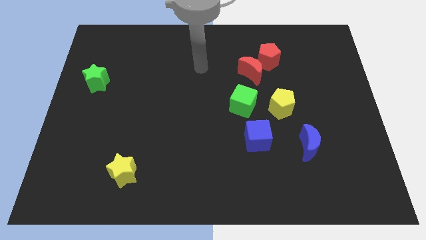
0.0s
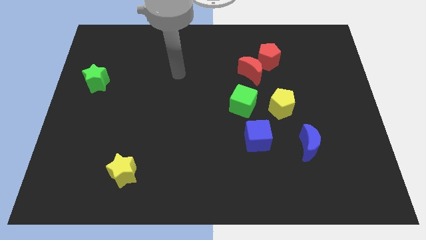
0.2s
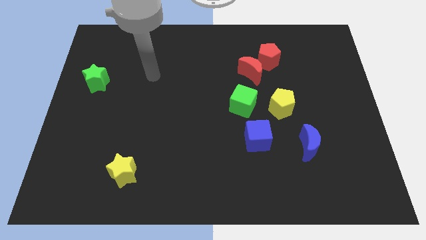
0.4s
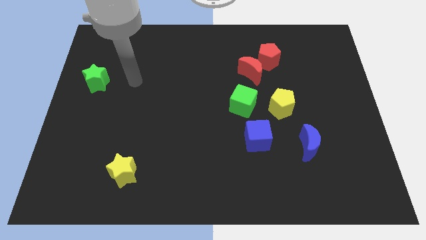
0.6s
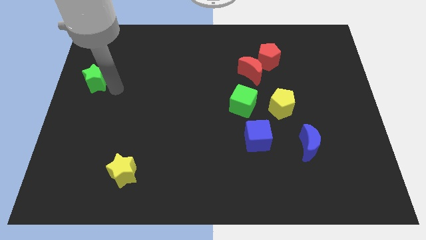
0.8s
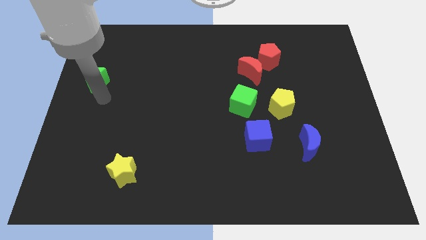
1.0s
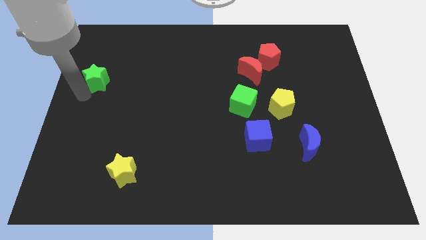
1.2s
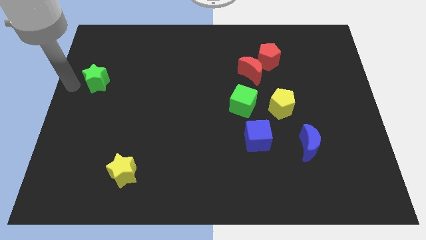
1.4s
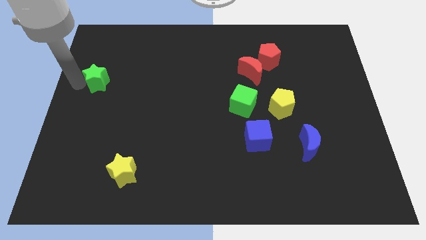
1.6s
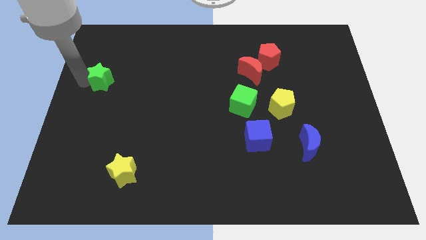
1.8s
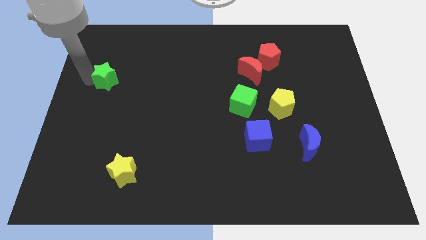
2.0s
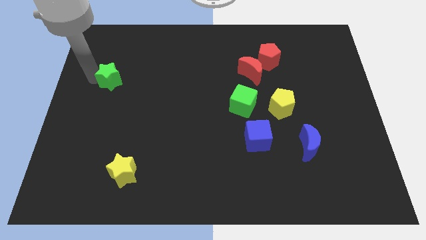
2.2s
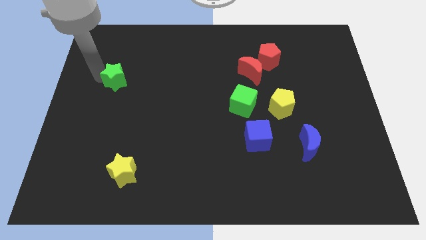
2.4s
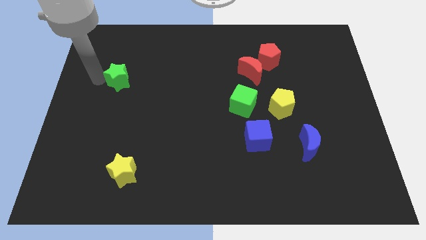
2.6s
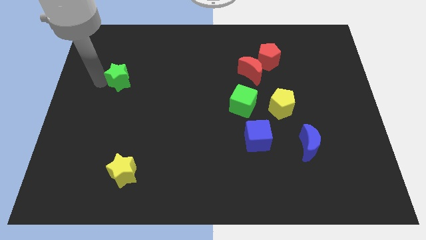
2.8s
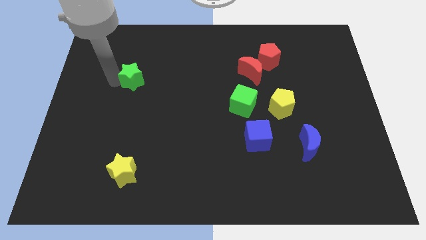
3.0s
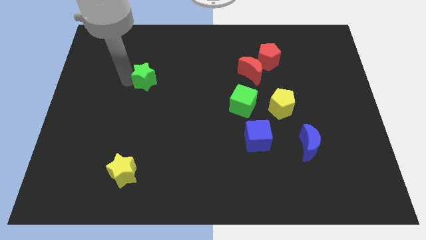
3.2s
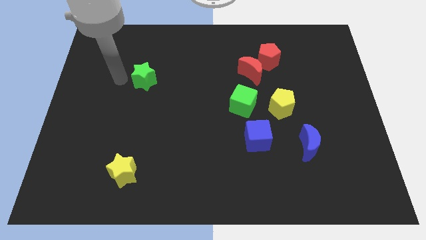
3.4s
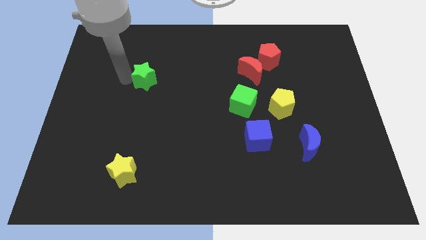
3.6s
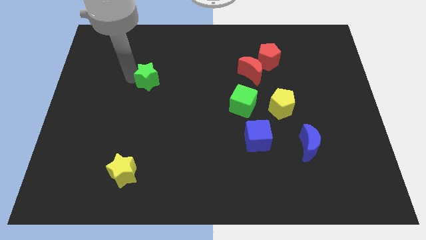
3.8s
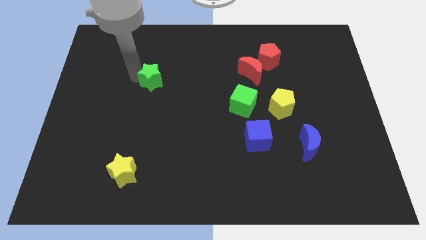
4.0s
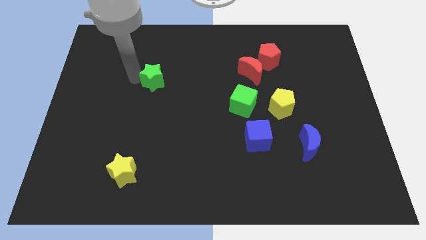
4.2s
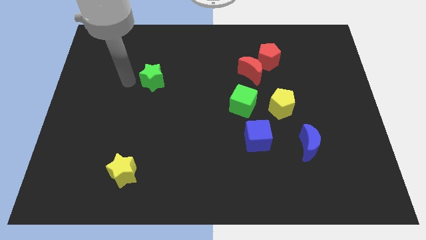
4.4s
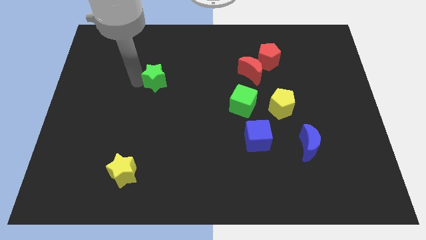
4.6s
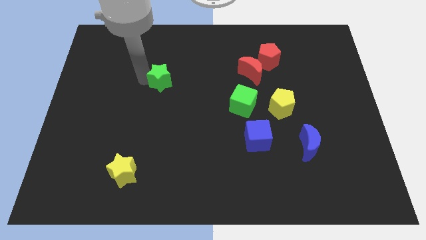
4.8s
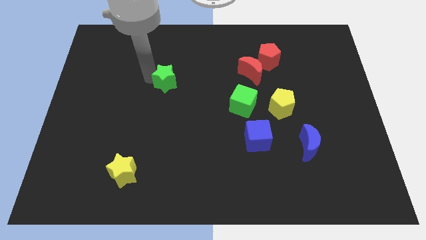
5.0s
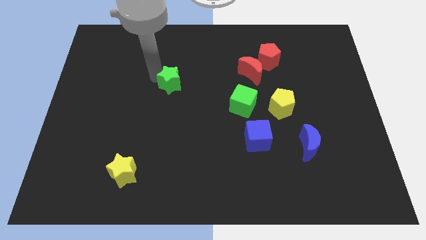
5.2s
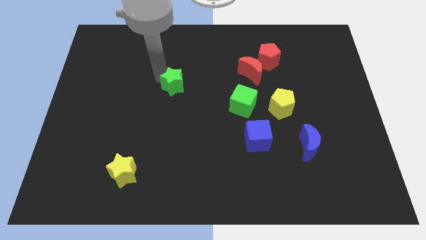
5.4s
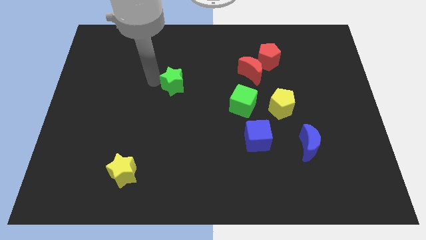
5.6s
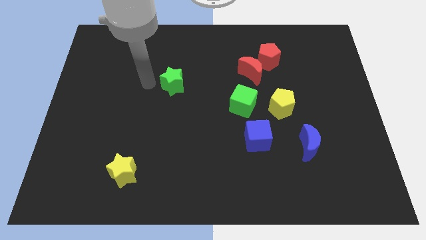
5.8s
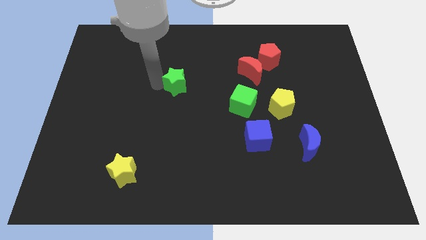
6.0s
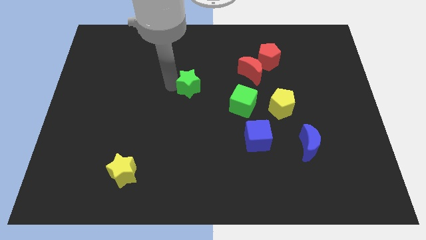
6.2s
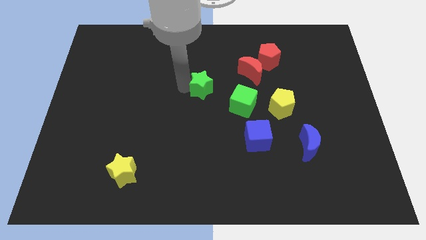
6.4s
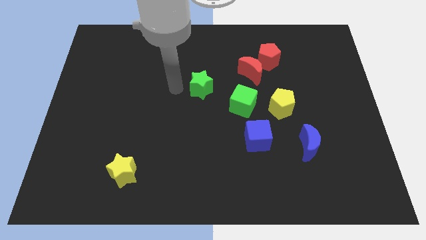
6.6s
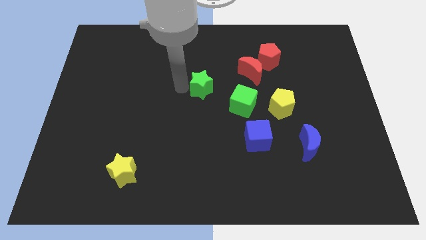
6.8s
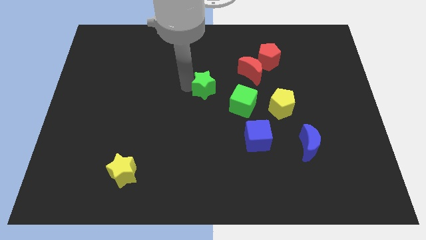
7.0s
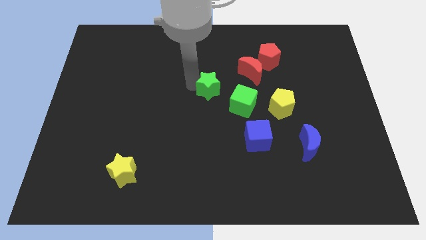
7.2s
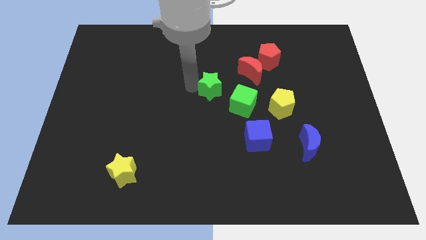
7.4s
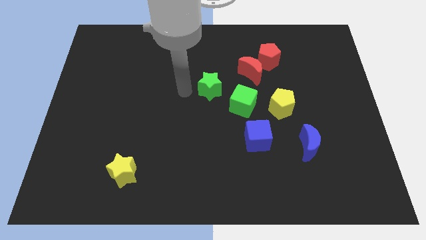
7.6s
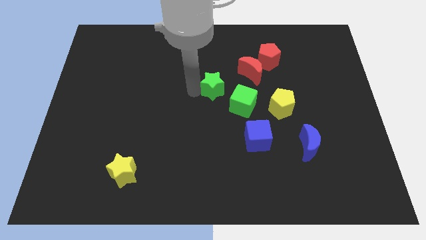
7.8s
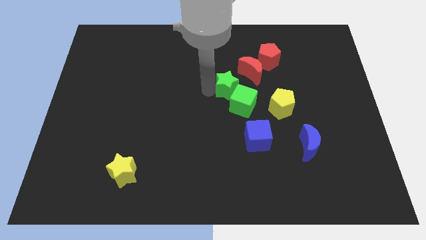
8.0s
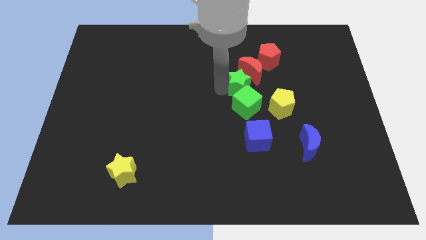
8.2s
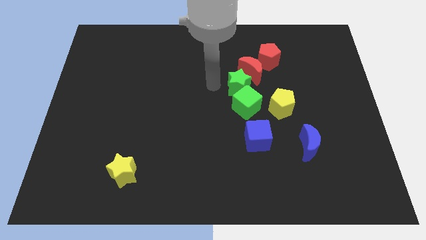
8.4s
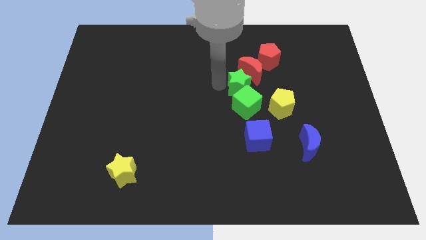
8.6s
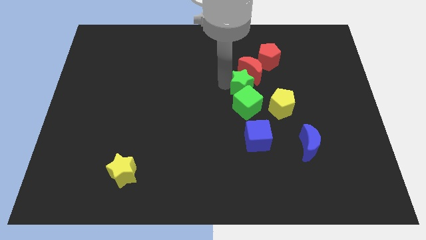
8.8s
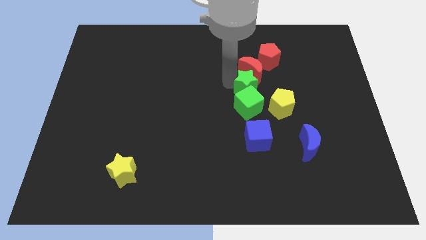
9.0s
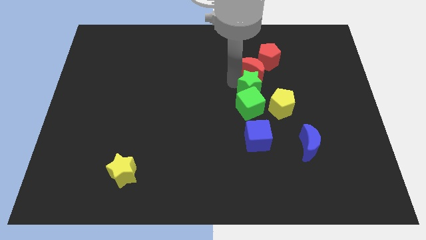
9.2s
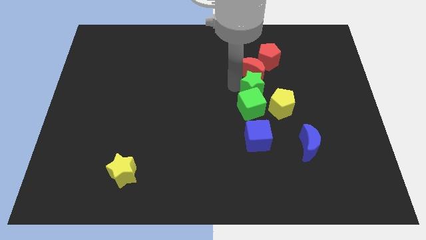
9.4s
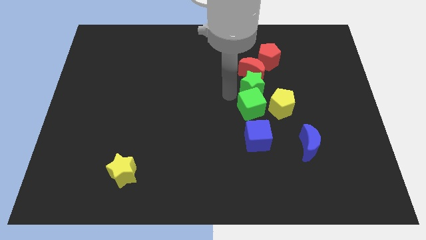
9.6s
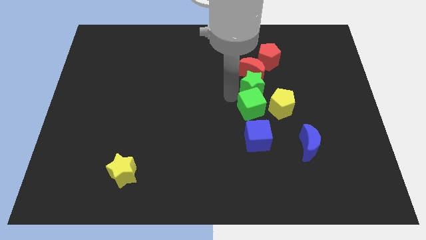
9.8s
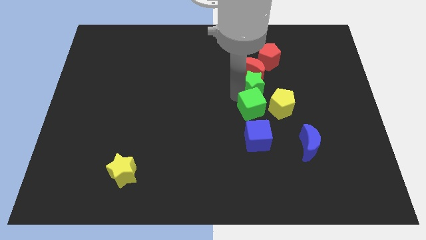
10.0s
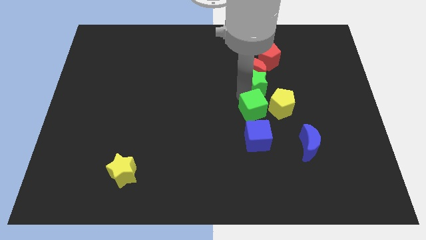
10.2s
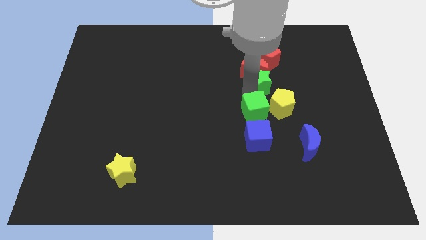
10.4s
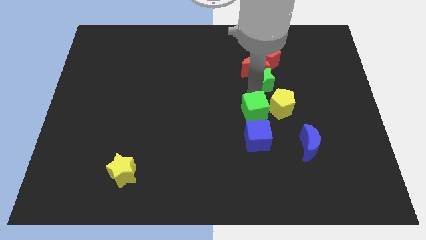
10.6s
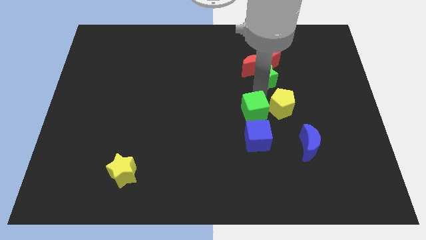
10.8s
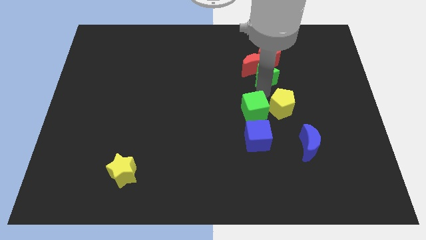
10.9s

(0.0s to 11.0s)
put the green star to the right side of the red moon

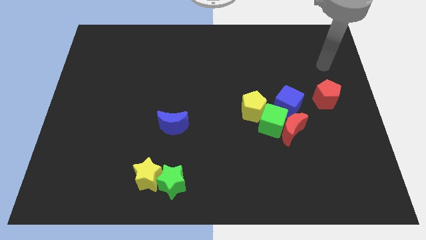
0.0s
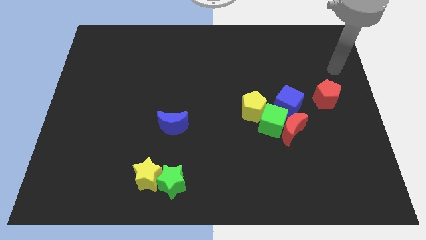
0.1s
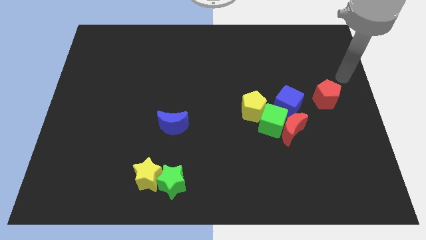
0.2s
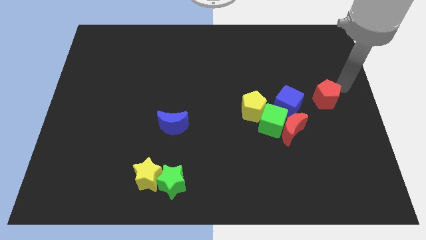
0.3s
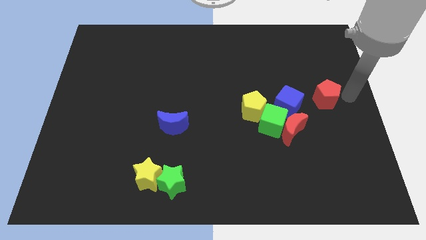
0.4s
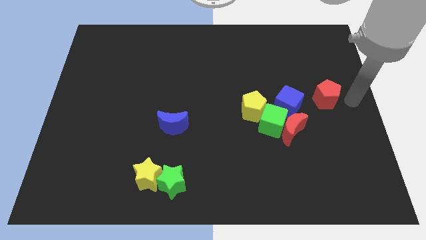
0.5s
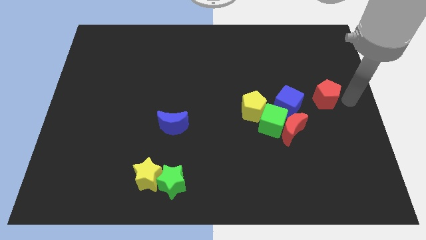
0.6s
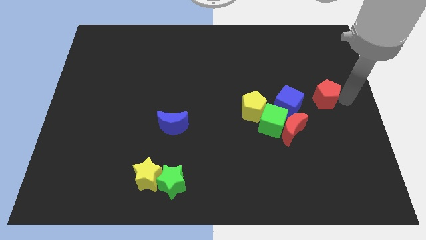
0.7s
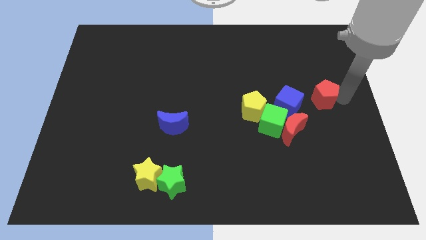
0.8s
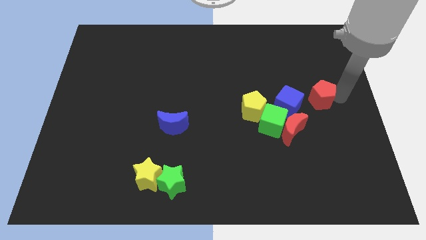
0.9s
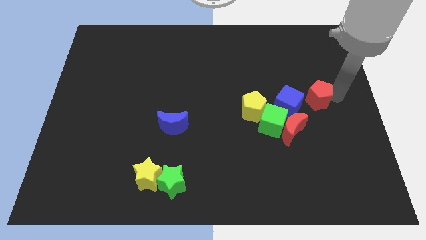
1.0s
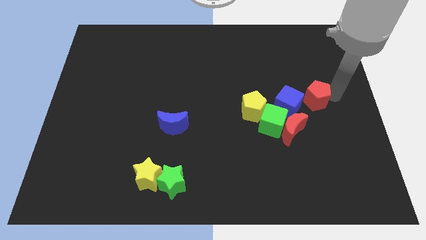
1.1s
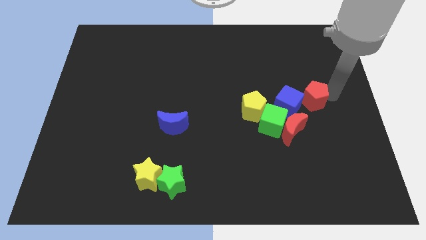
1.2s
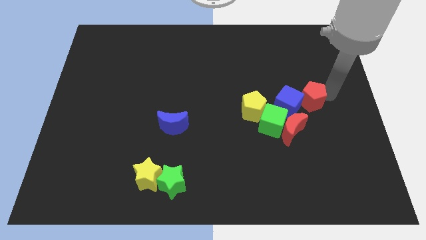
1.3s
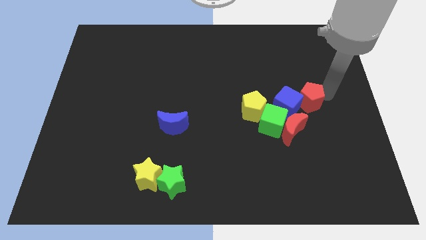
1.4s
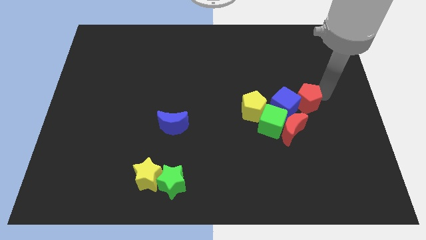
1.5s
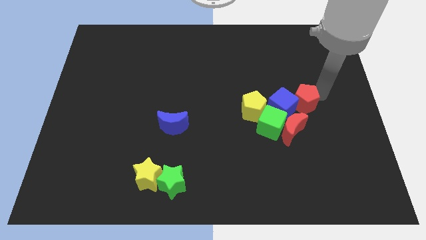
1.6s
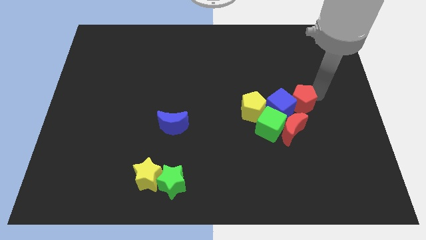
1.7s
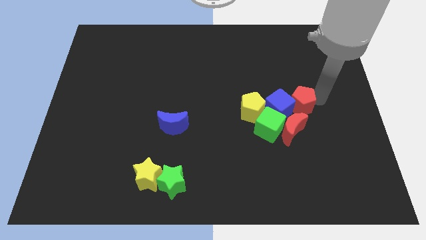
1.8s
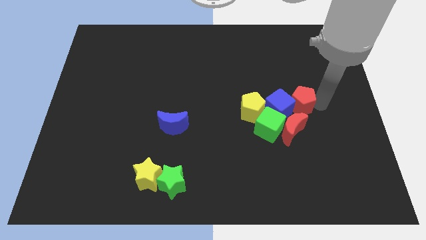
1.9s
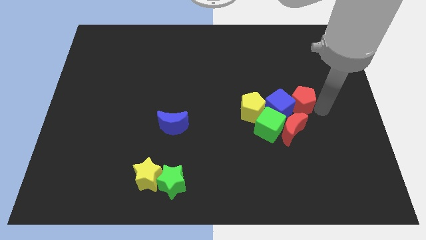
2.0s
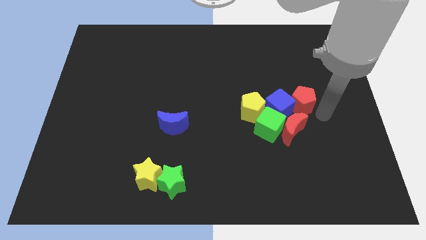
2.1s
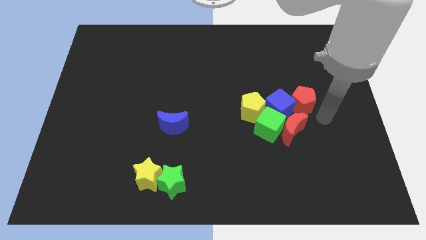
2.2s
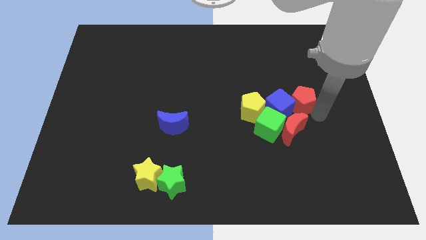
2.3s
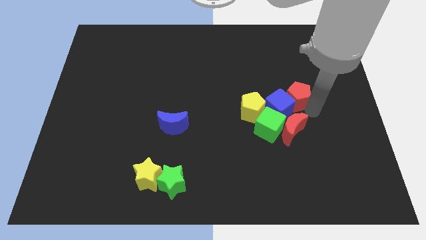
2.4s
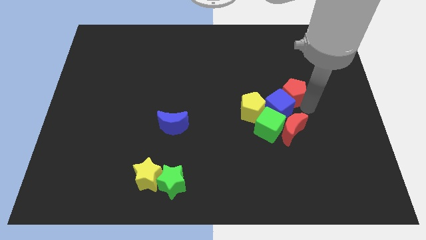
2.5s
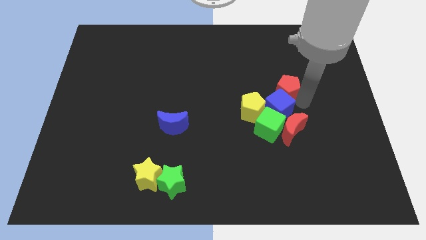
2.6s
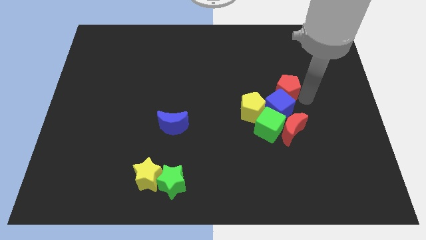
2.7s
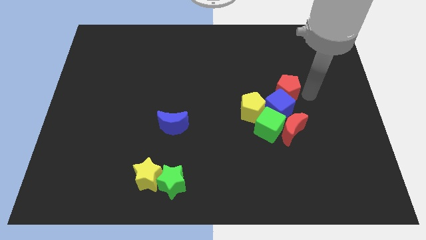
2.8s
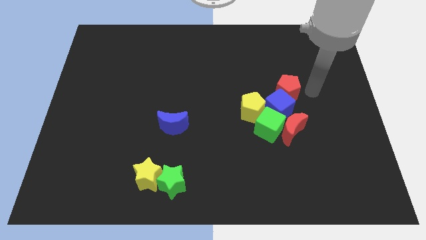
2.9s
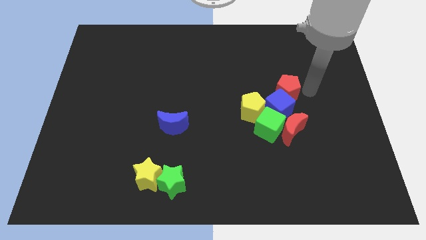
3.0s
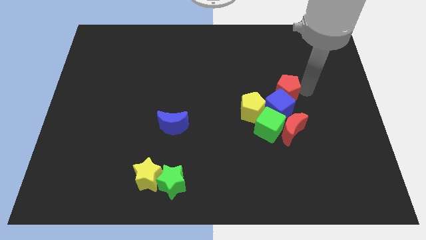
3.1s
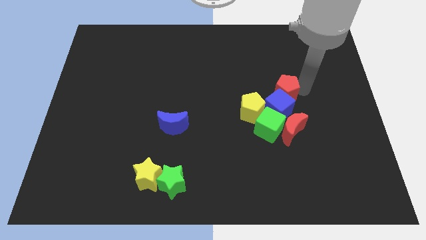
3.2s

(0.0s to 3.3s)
put the red pentagon above the green cube
